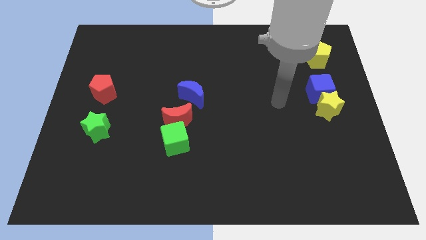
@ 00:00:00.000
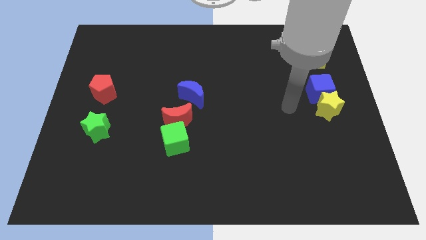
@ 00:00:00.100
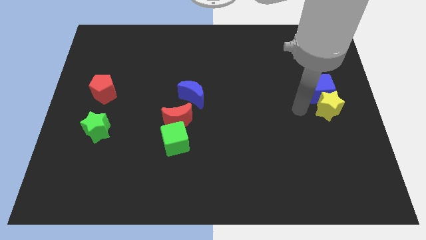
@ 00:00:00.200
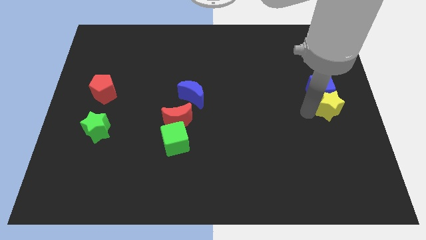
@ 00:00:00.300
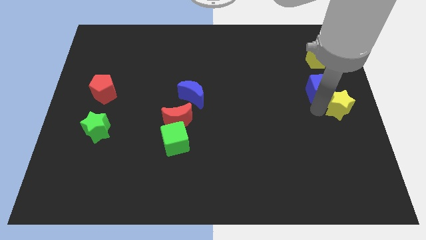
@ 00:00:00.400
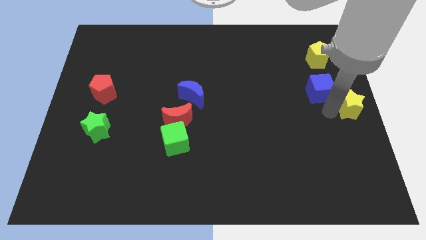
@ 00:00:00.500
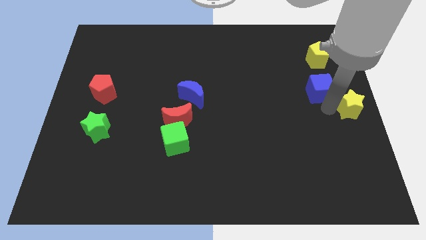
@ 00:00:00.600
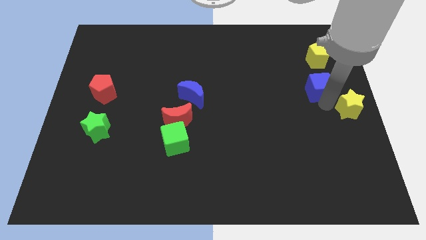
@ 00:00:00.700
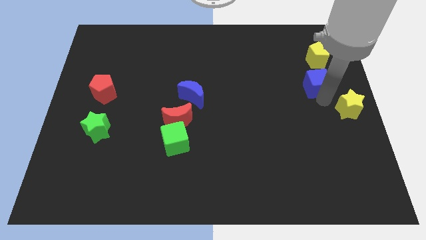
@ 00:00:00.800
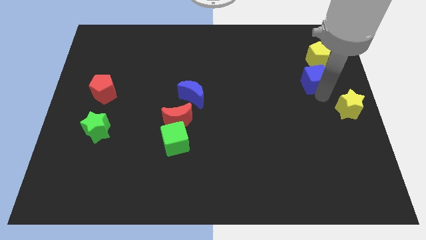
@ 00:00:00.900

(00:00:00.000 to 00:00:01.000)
separate the blue cube from the yellow star

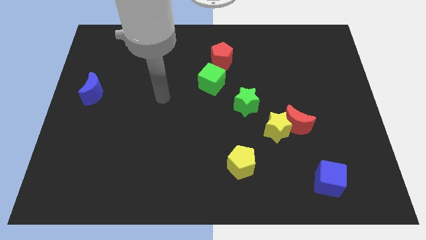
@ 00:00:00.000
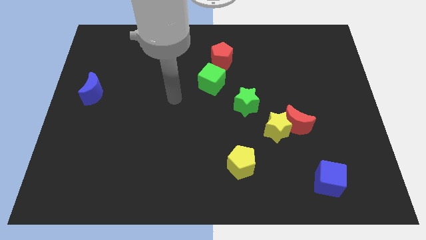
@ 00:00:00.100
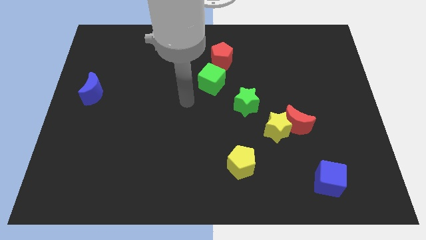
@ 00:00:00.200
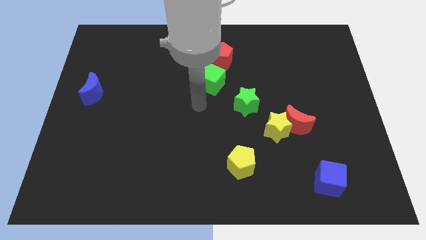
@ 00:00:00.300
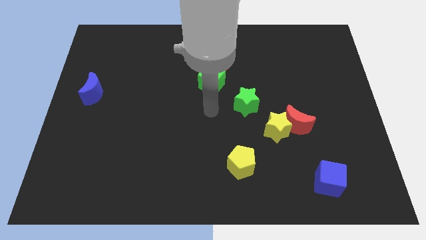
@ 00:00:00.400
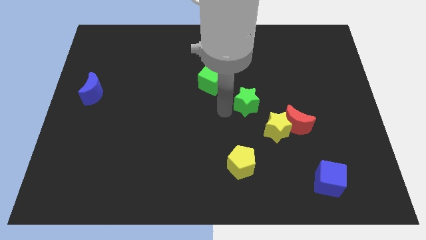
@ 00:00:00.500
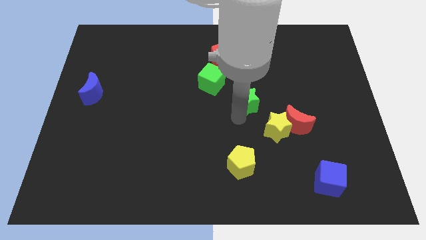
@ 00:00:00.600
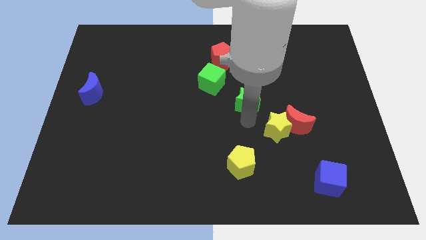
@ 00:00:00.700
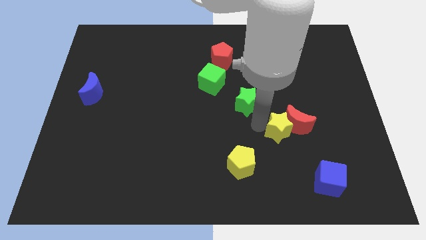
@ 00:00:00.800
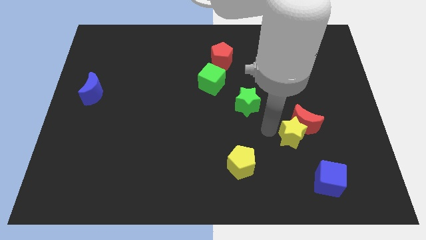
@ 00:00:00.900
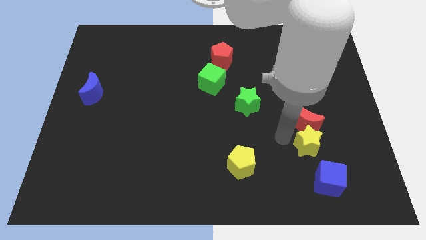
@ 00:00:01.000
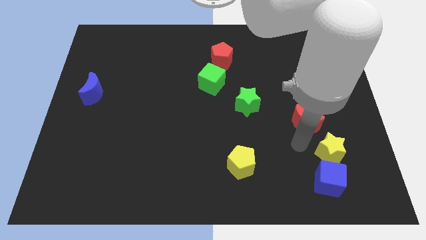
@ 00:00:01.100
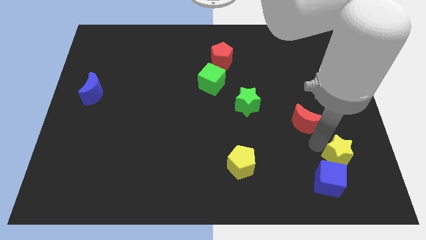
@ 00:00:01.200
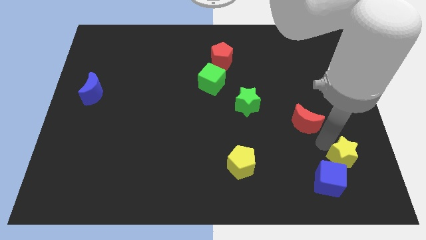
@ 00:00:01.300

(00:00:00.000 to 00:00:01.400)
move the red moon away from the yellow star

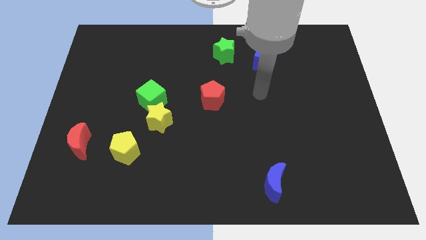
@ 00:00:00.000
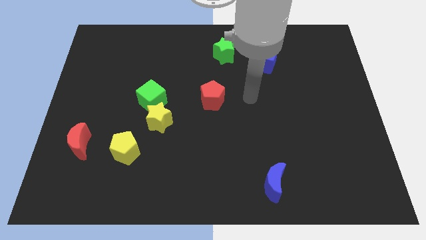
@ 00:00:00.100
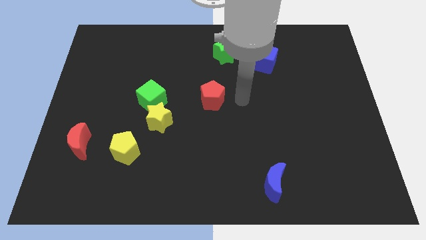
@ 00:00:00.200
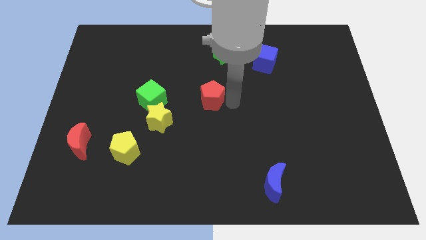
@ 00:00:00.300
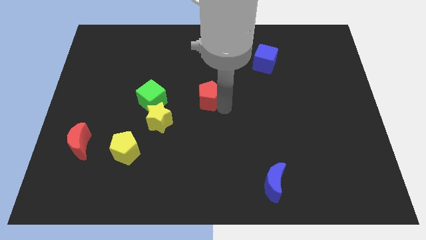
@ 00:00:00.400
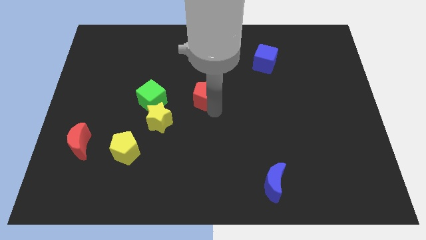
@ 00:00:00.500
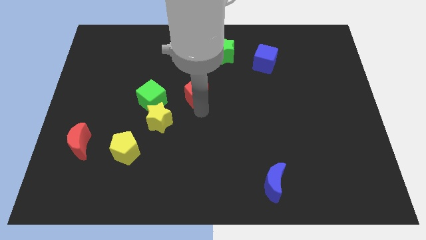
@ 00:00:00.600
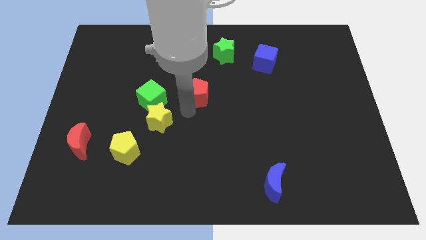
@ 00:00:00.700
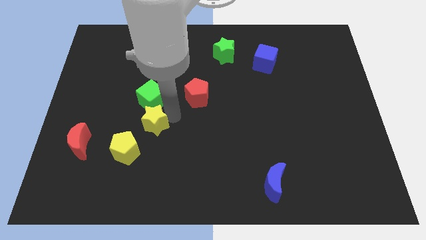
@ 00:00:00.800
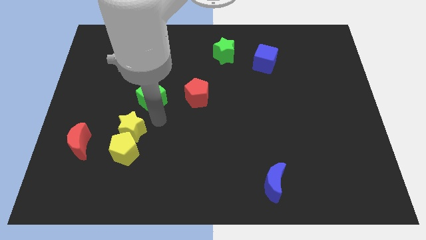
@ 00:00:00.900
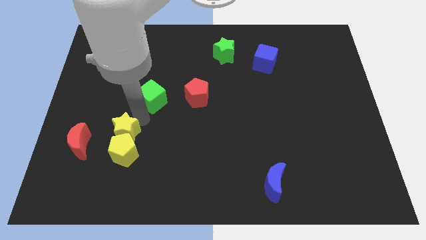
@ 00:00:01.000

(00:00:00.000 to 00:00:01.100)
separate the green cube from the yellow star

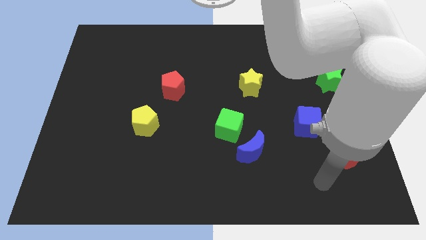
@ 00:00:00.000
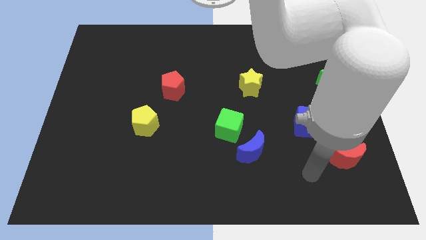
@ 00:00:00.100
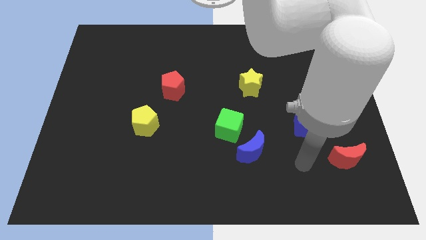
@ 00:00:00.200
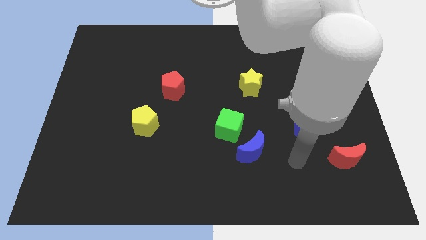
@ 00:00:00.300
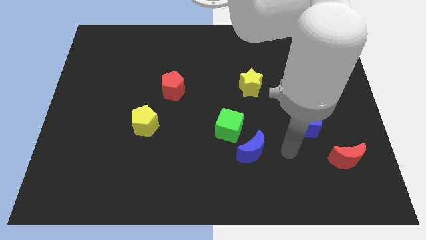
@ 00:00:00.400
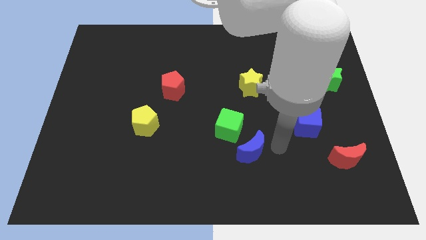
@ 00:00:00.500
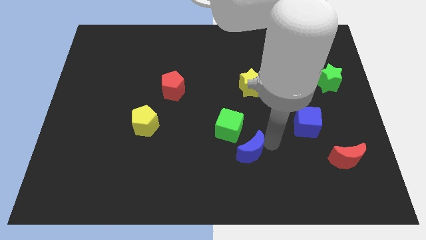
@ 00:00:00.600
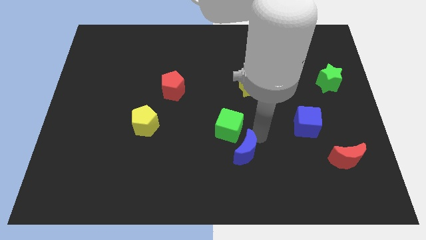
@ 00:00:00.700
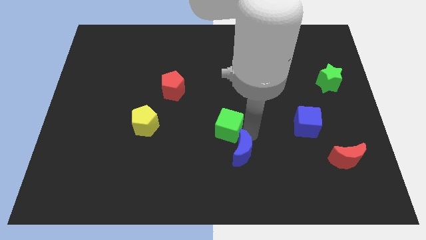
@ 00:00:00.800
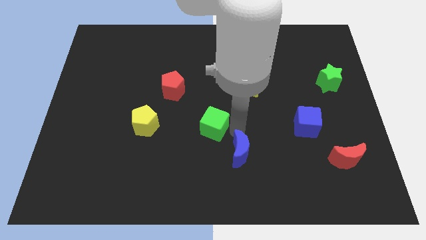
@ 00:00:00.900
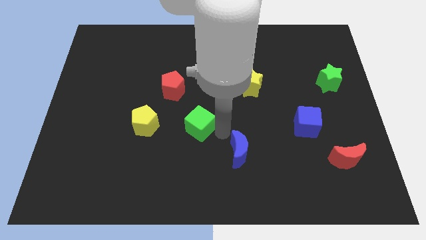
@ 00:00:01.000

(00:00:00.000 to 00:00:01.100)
separate the blue moon from the green cube

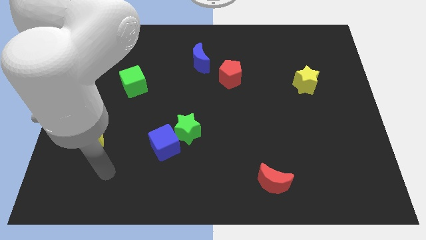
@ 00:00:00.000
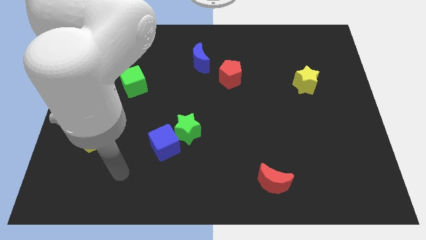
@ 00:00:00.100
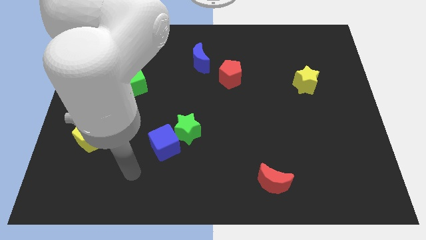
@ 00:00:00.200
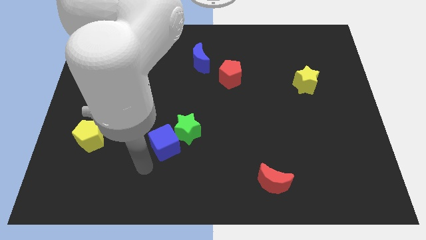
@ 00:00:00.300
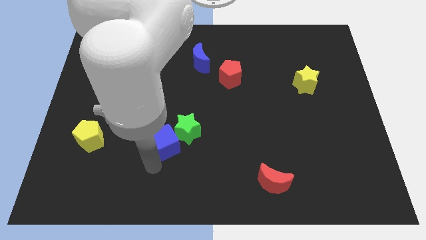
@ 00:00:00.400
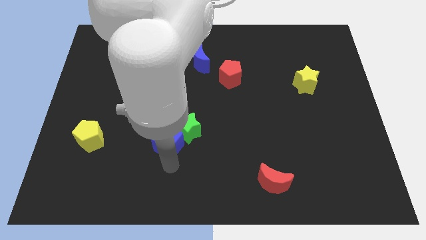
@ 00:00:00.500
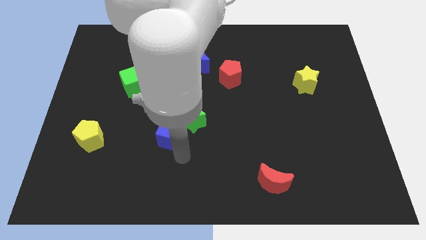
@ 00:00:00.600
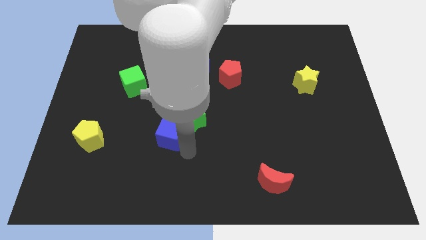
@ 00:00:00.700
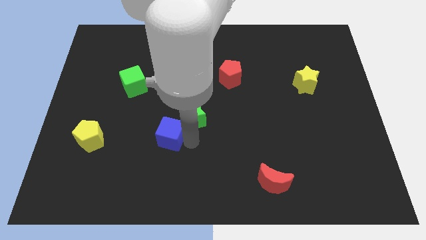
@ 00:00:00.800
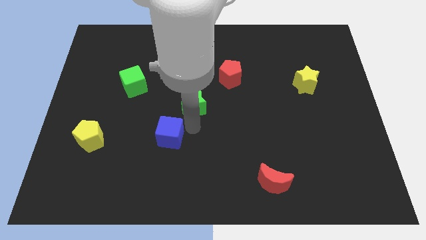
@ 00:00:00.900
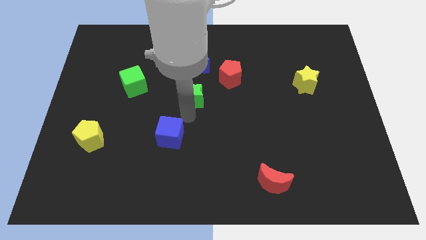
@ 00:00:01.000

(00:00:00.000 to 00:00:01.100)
pull the blue cube apart from the green star

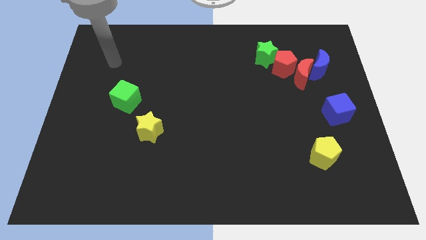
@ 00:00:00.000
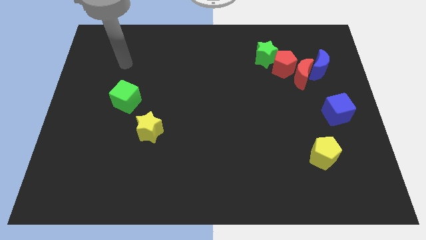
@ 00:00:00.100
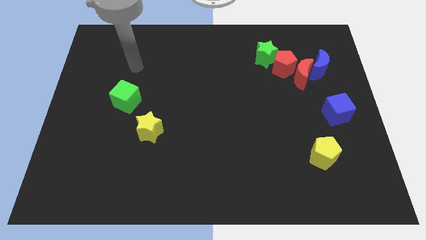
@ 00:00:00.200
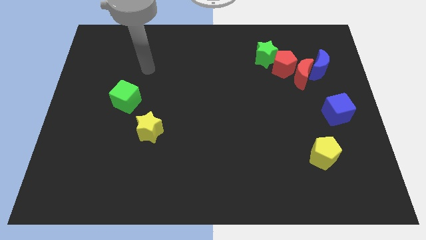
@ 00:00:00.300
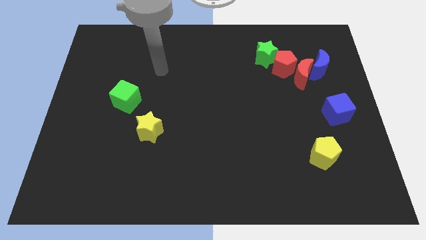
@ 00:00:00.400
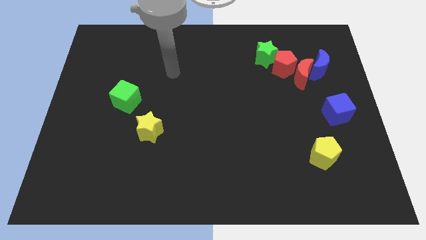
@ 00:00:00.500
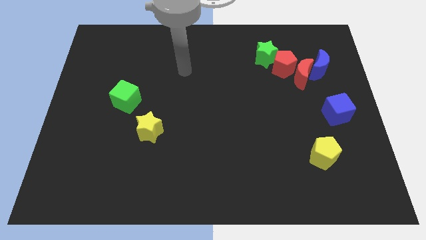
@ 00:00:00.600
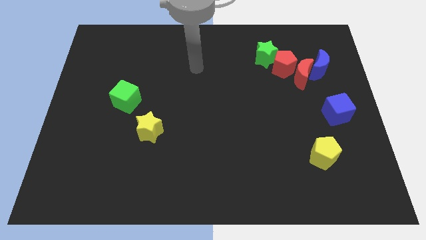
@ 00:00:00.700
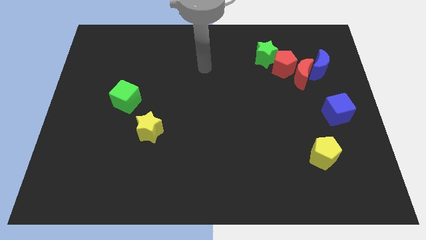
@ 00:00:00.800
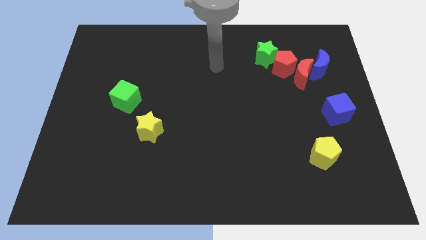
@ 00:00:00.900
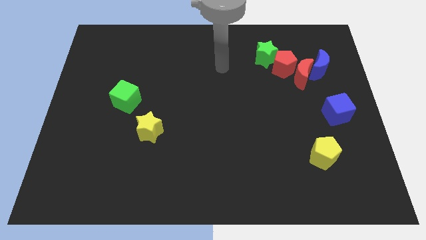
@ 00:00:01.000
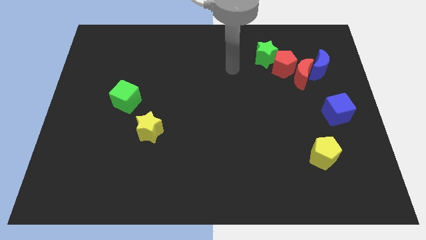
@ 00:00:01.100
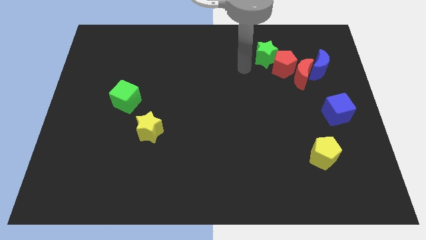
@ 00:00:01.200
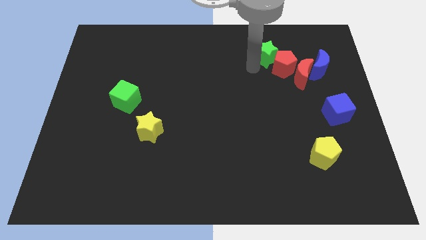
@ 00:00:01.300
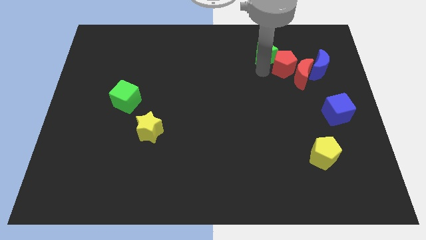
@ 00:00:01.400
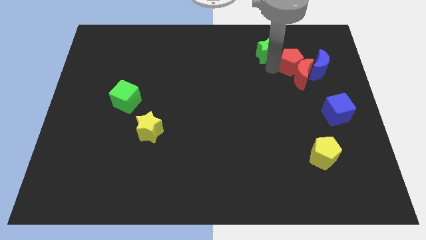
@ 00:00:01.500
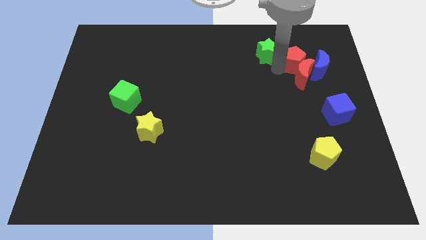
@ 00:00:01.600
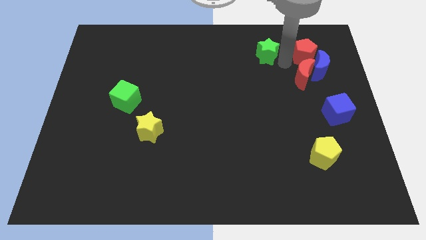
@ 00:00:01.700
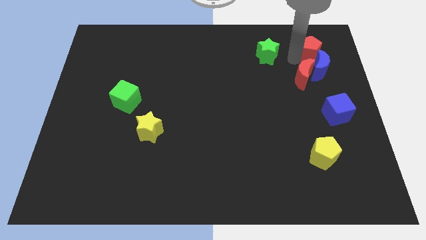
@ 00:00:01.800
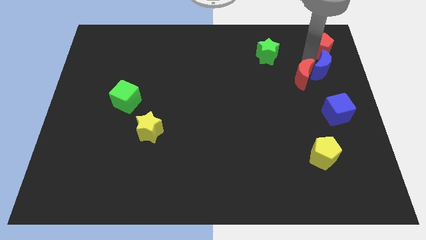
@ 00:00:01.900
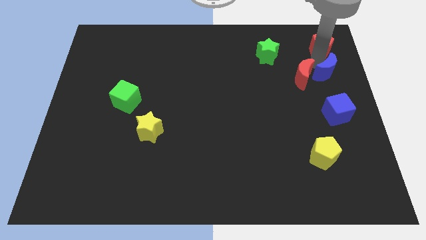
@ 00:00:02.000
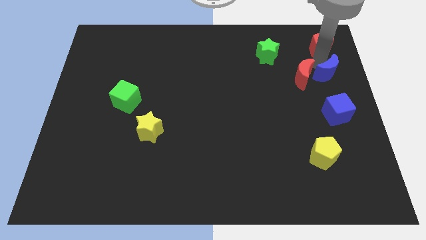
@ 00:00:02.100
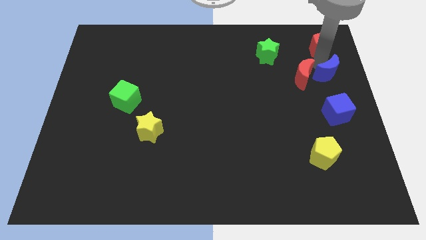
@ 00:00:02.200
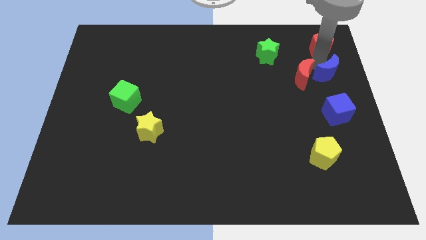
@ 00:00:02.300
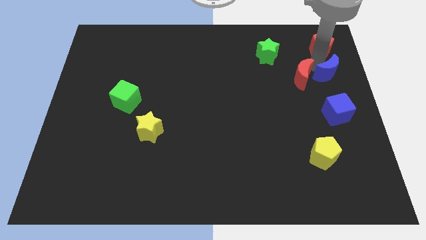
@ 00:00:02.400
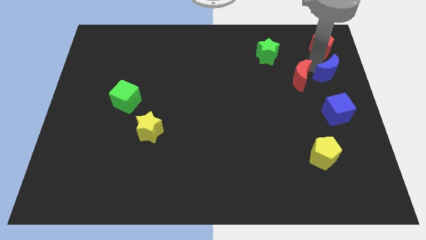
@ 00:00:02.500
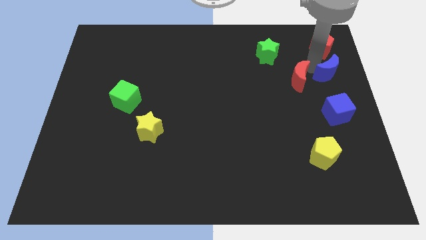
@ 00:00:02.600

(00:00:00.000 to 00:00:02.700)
move the red moon away from the red pentagon and blue moon

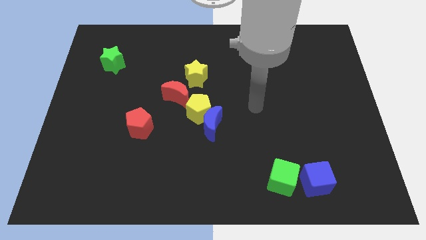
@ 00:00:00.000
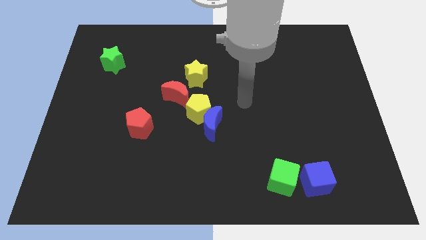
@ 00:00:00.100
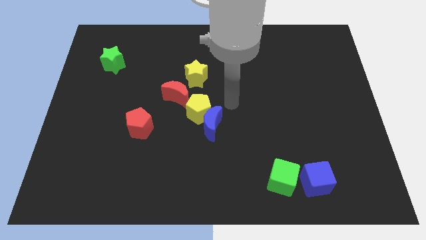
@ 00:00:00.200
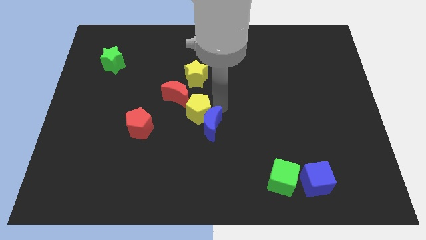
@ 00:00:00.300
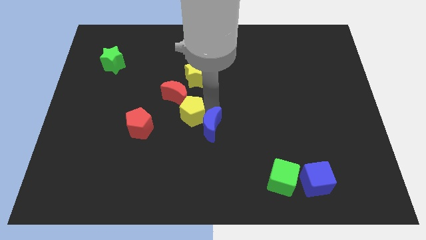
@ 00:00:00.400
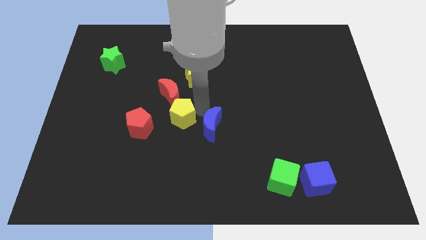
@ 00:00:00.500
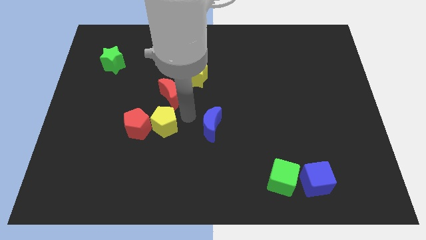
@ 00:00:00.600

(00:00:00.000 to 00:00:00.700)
move the blue moon away from the yellow pentagon

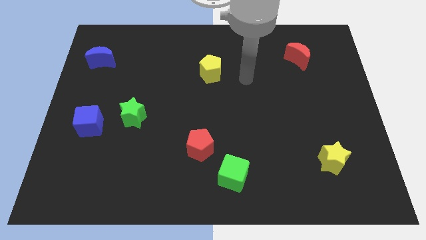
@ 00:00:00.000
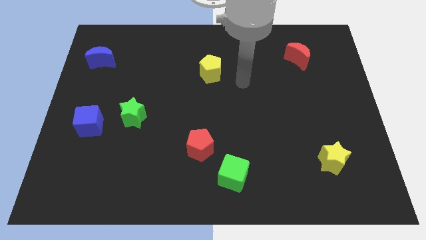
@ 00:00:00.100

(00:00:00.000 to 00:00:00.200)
separate the red pentagon from the green cube
